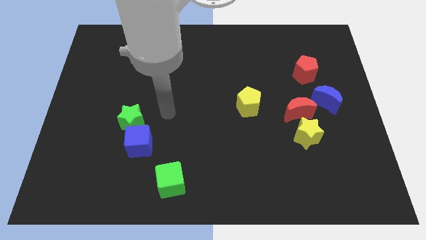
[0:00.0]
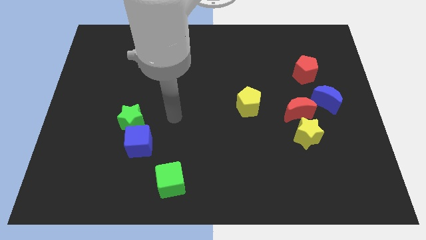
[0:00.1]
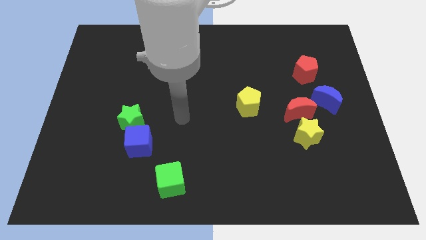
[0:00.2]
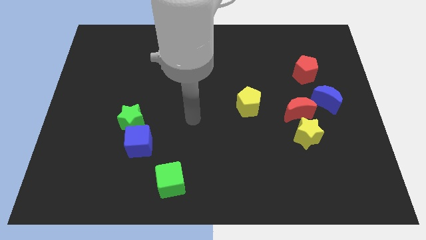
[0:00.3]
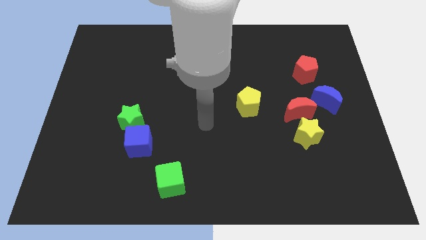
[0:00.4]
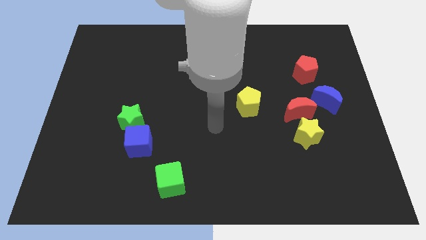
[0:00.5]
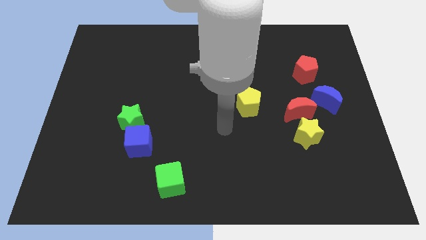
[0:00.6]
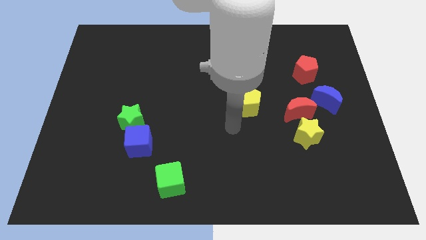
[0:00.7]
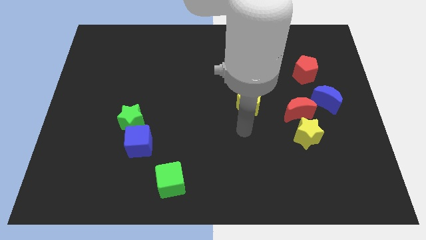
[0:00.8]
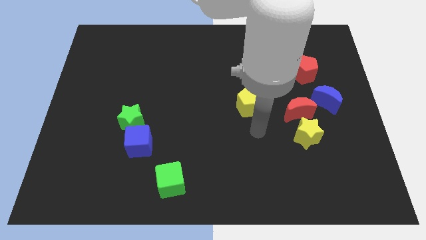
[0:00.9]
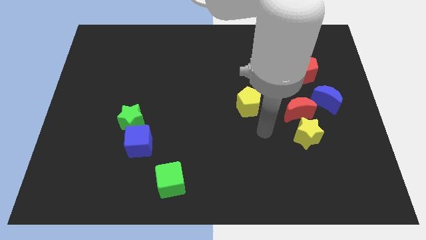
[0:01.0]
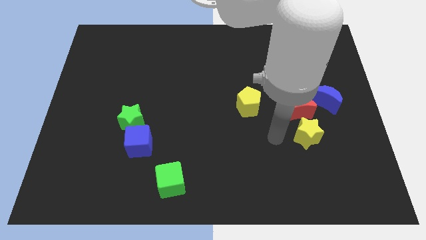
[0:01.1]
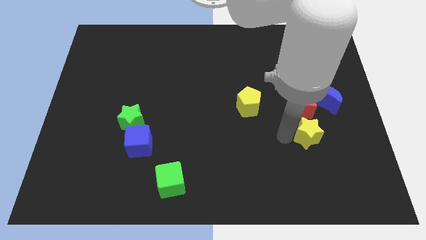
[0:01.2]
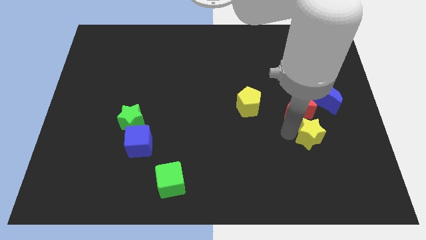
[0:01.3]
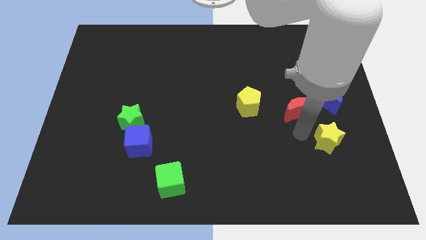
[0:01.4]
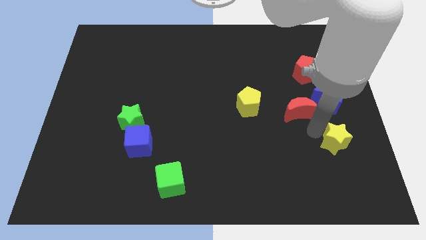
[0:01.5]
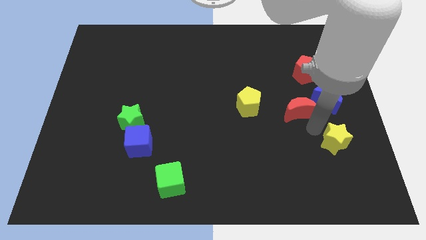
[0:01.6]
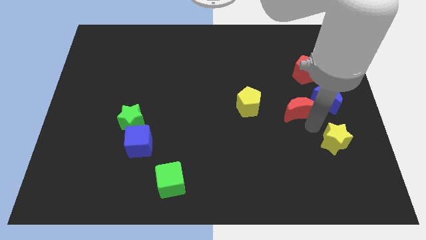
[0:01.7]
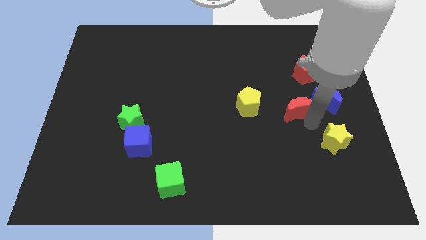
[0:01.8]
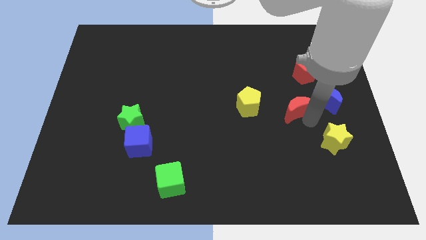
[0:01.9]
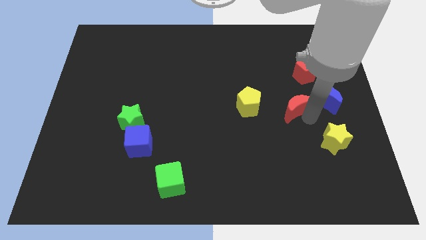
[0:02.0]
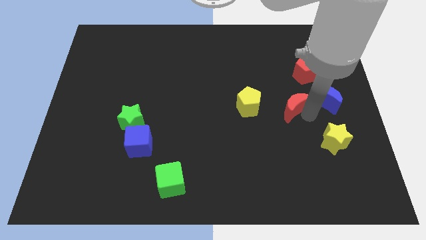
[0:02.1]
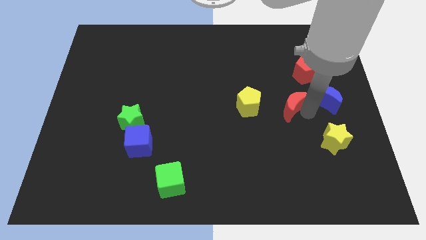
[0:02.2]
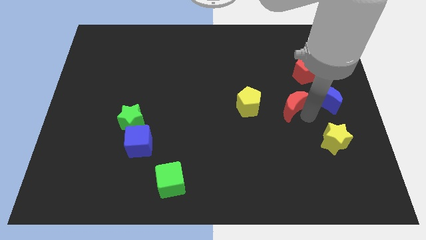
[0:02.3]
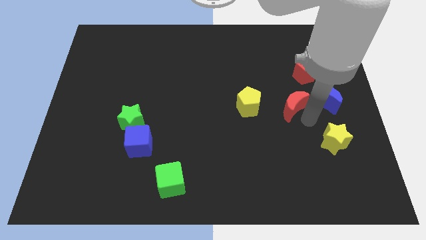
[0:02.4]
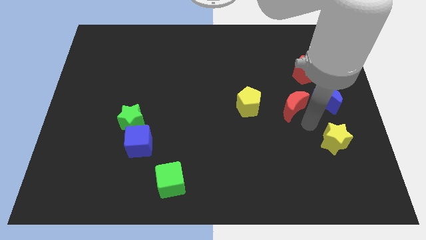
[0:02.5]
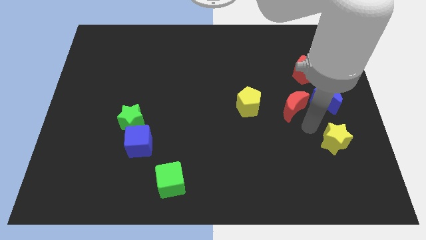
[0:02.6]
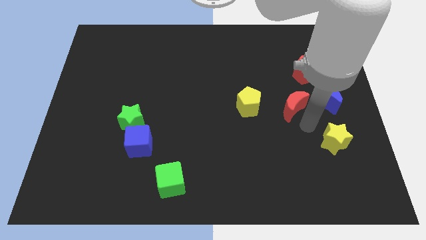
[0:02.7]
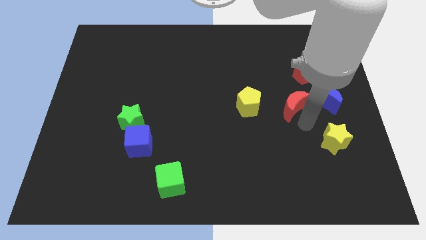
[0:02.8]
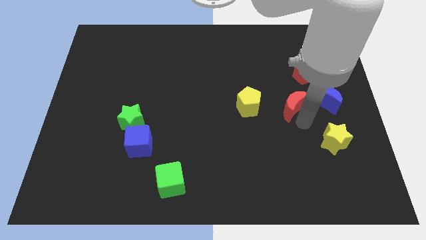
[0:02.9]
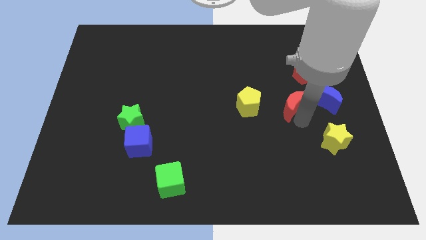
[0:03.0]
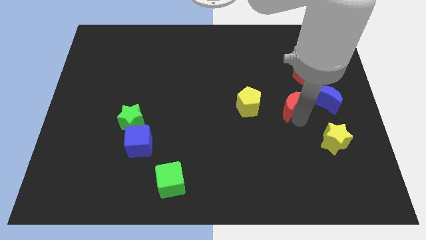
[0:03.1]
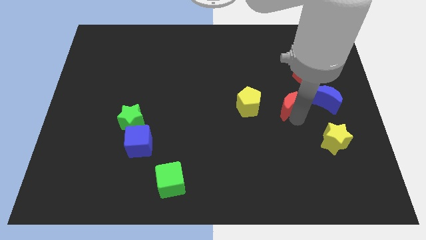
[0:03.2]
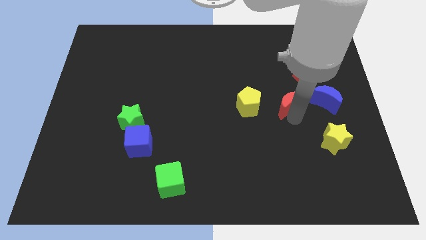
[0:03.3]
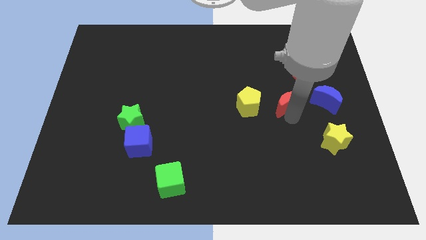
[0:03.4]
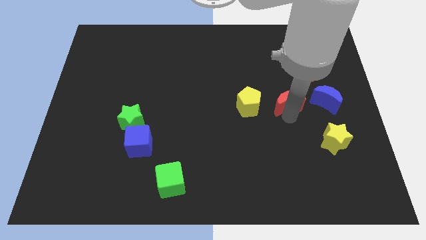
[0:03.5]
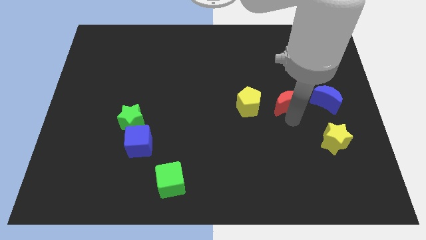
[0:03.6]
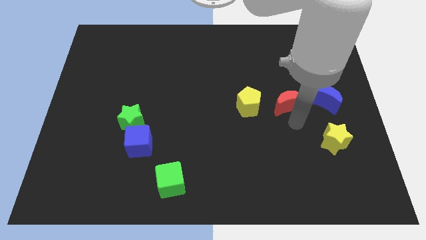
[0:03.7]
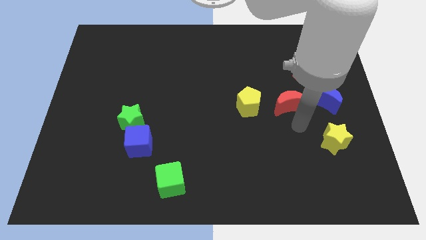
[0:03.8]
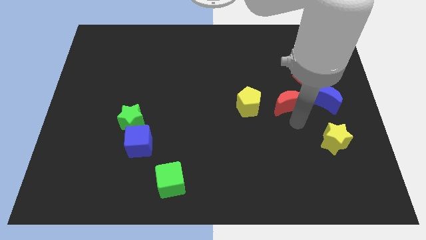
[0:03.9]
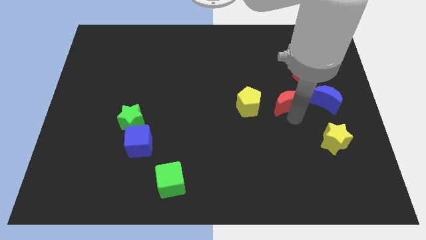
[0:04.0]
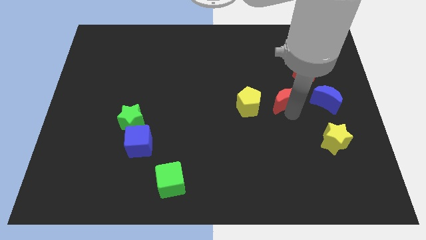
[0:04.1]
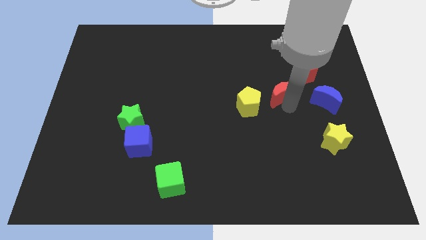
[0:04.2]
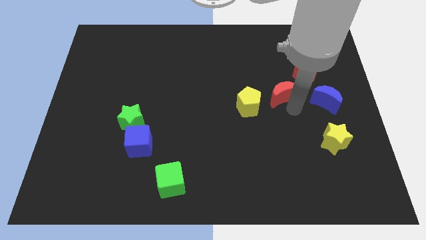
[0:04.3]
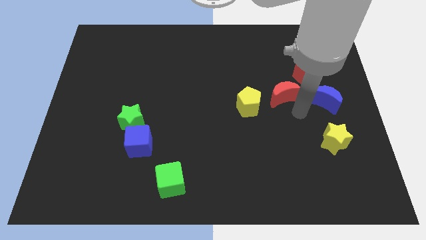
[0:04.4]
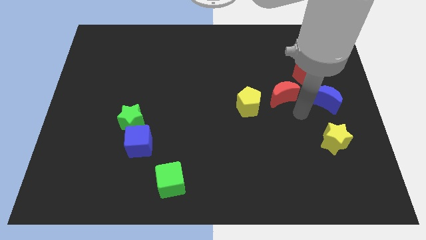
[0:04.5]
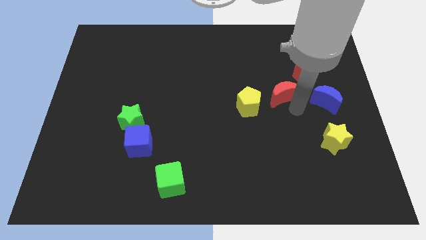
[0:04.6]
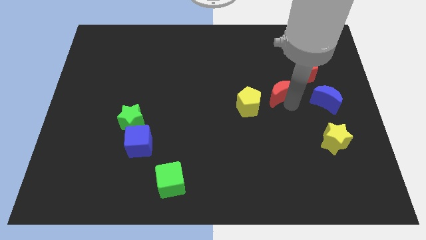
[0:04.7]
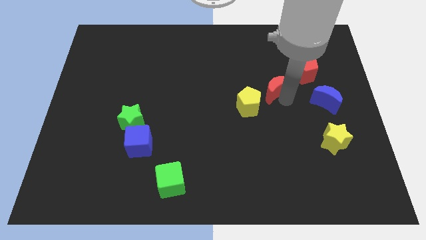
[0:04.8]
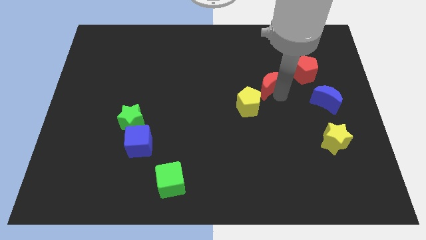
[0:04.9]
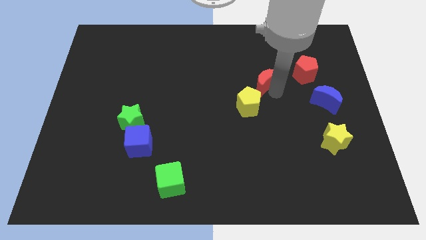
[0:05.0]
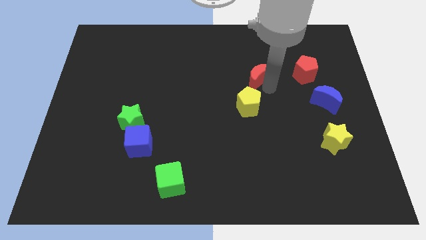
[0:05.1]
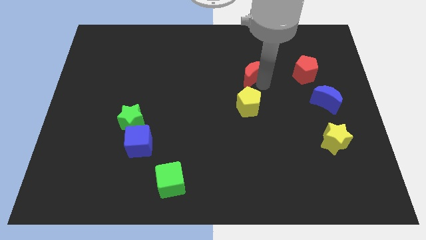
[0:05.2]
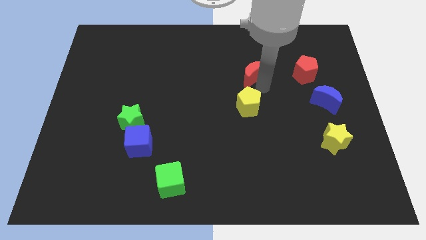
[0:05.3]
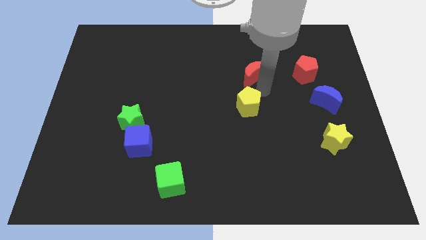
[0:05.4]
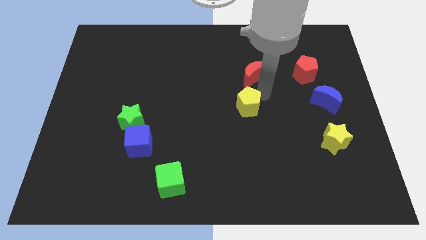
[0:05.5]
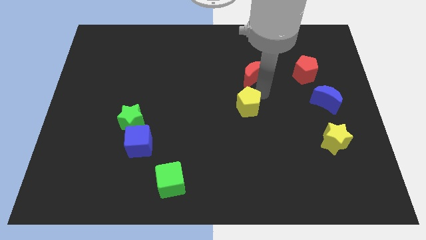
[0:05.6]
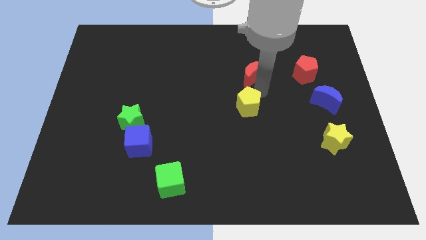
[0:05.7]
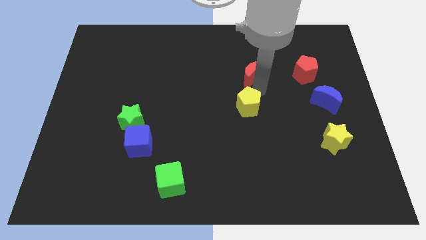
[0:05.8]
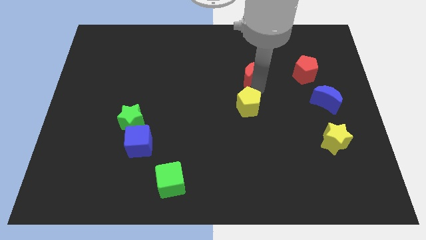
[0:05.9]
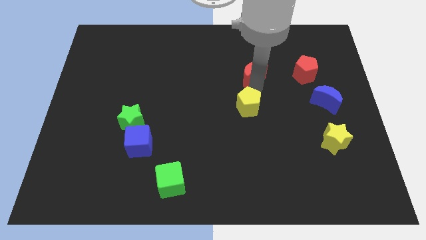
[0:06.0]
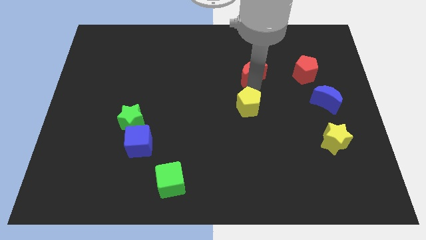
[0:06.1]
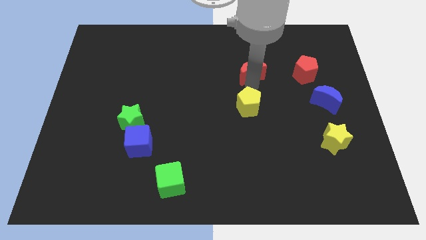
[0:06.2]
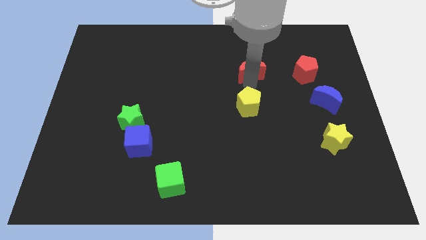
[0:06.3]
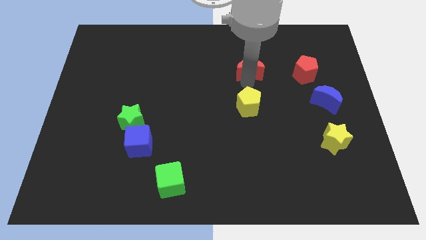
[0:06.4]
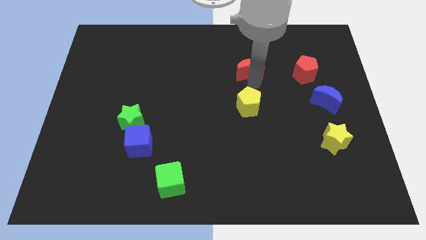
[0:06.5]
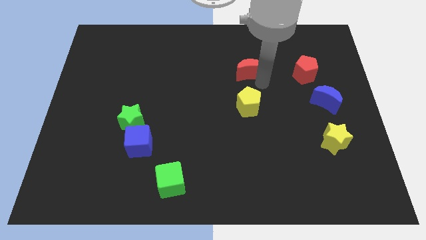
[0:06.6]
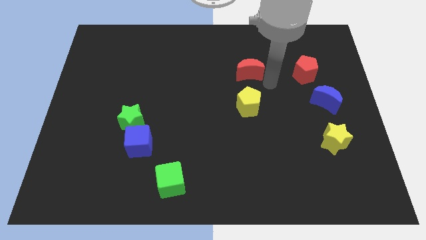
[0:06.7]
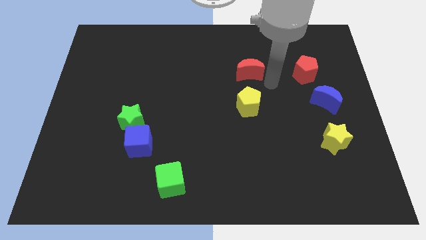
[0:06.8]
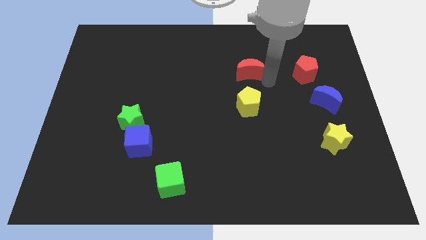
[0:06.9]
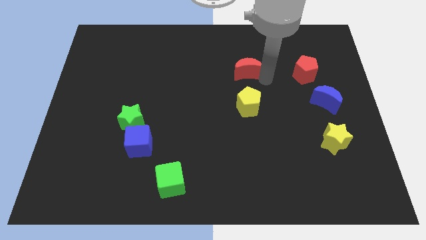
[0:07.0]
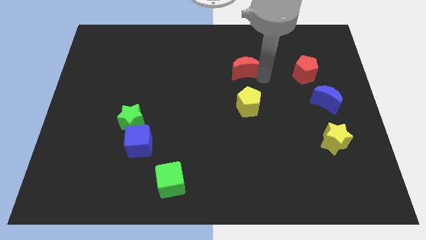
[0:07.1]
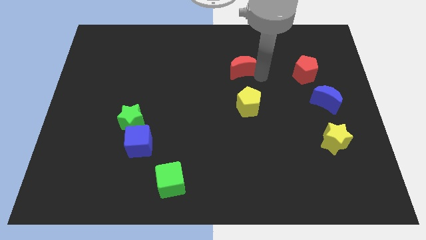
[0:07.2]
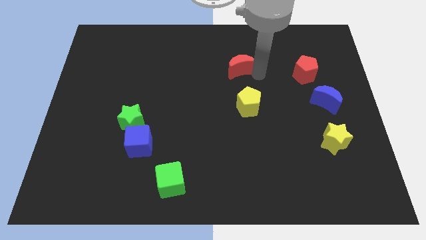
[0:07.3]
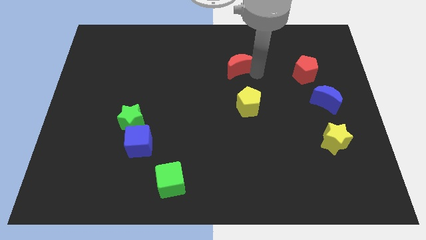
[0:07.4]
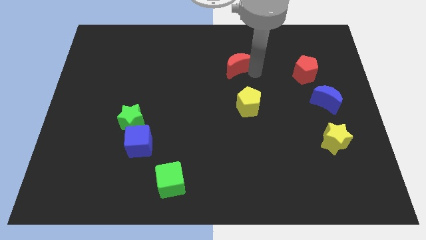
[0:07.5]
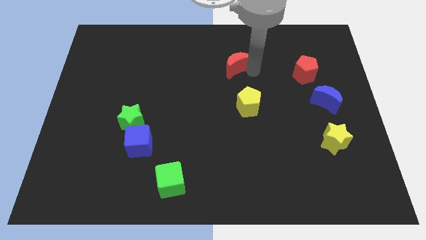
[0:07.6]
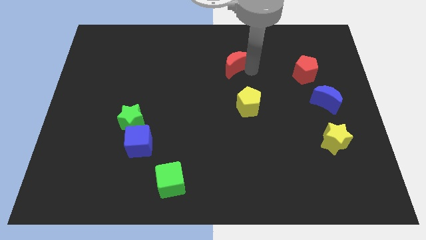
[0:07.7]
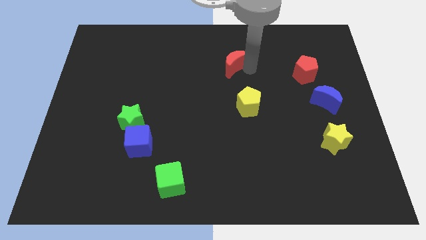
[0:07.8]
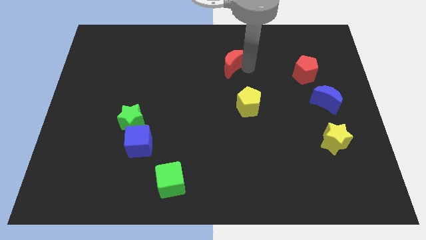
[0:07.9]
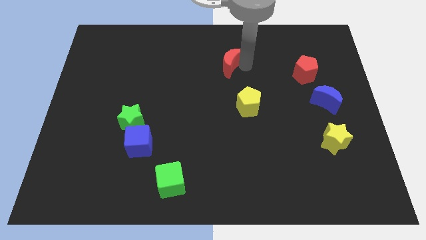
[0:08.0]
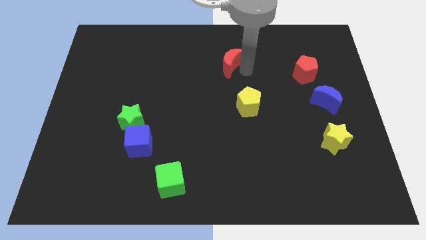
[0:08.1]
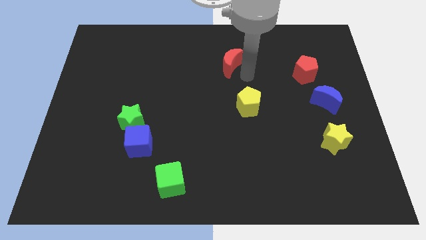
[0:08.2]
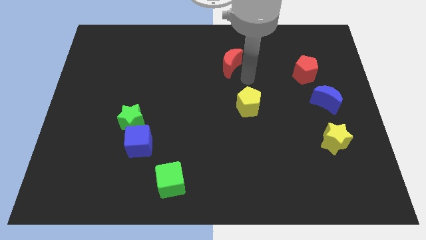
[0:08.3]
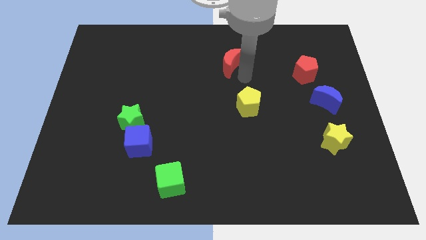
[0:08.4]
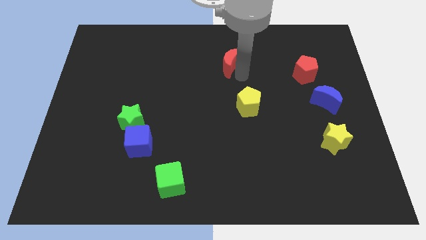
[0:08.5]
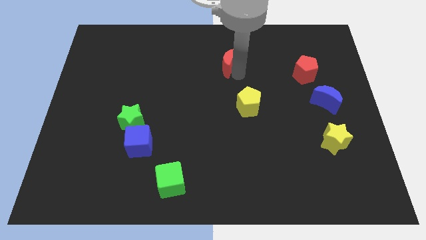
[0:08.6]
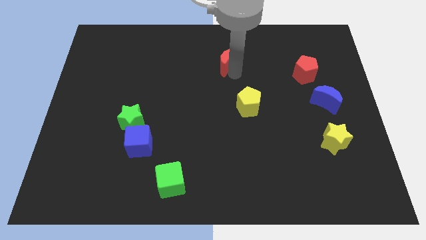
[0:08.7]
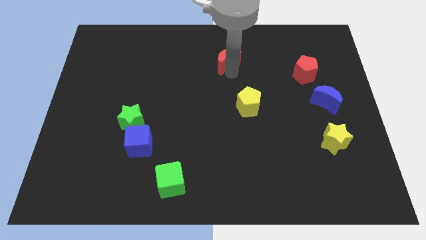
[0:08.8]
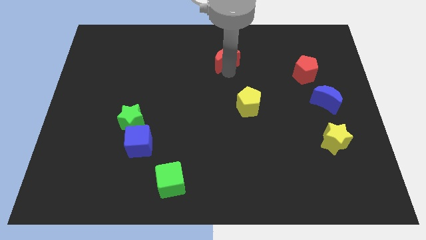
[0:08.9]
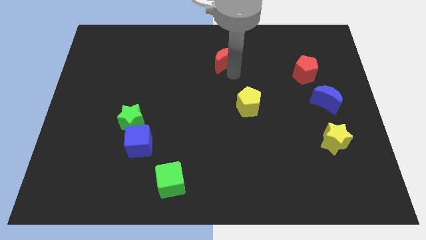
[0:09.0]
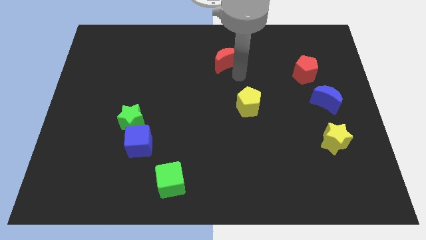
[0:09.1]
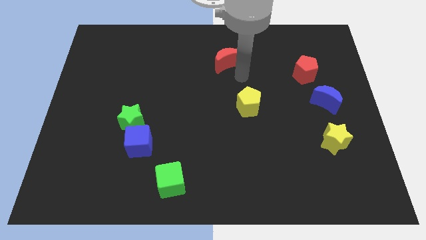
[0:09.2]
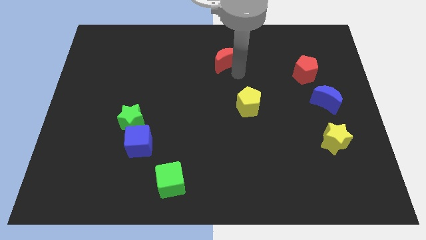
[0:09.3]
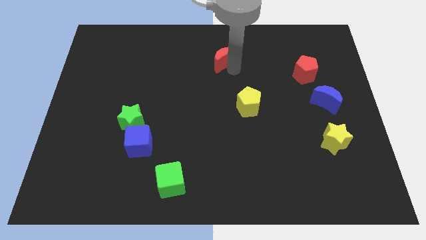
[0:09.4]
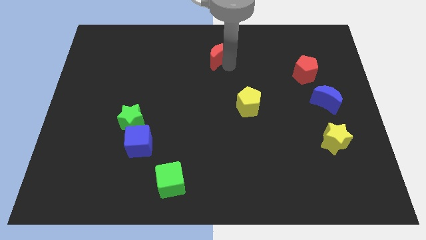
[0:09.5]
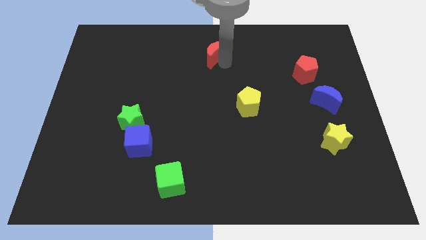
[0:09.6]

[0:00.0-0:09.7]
slide the red moon to the top
